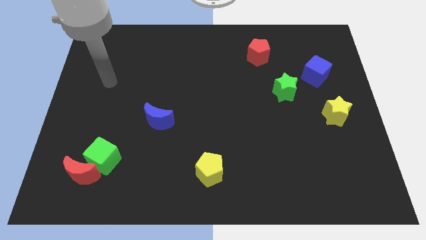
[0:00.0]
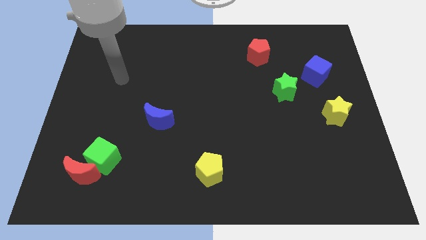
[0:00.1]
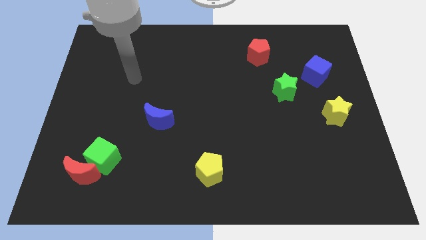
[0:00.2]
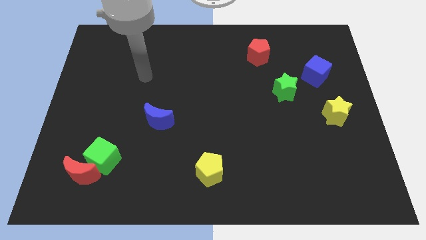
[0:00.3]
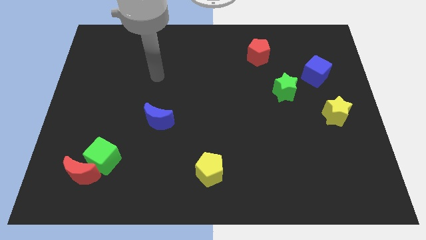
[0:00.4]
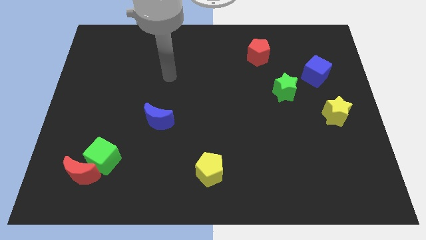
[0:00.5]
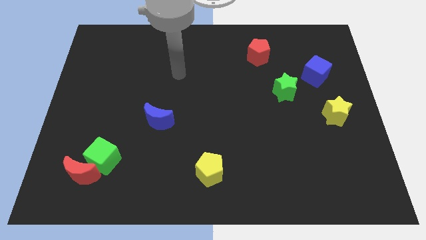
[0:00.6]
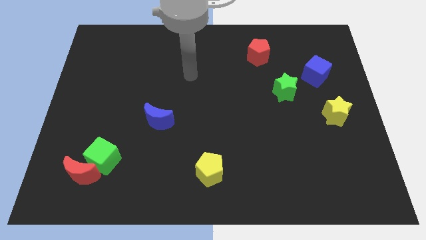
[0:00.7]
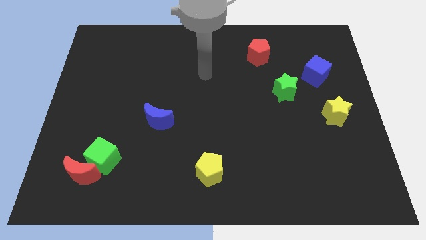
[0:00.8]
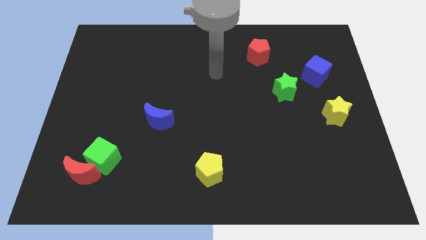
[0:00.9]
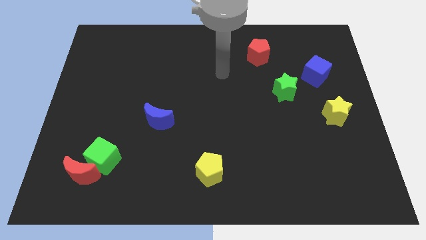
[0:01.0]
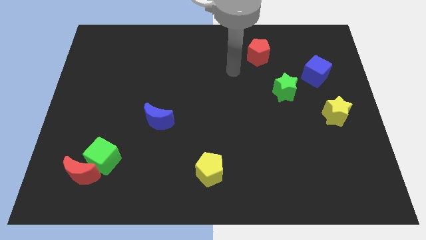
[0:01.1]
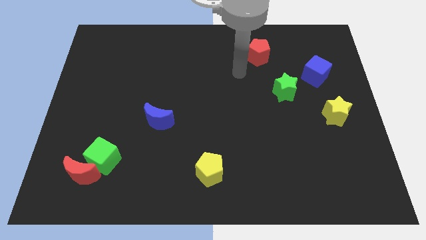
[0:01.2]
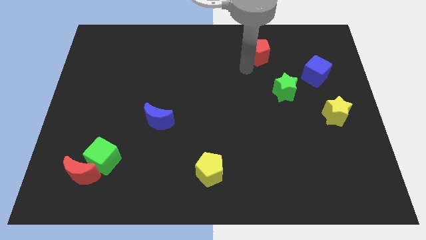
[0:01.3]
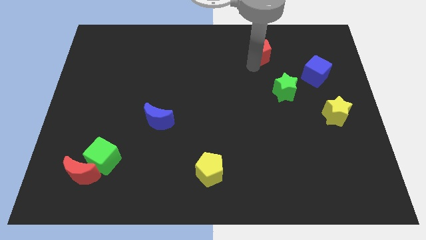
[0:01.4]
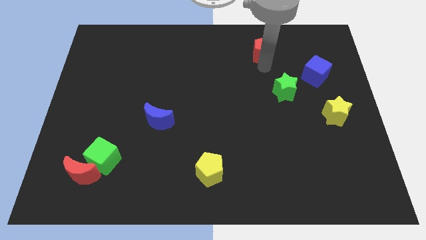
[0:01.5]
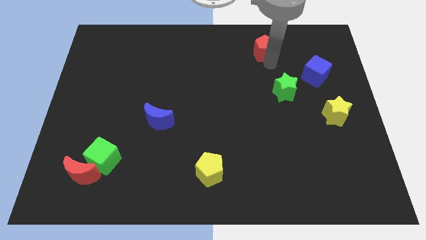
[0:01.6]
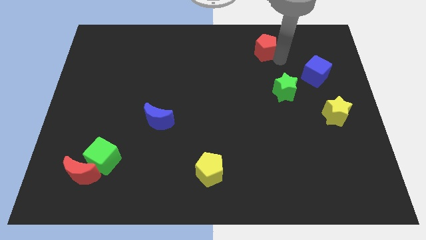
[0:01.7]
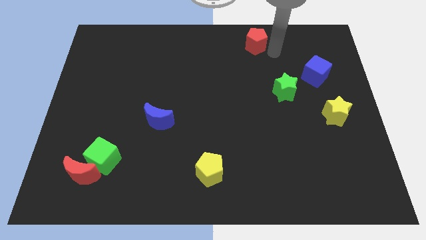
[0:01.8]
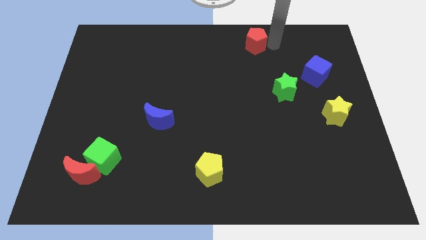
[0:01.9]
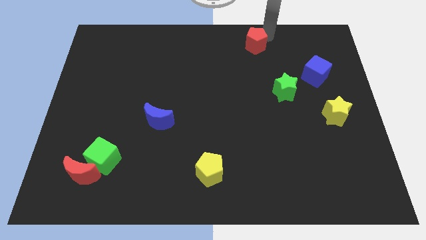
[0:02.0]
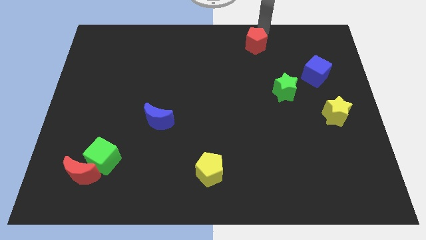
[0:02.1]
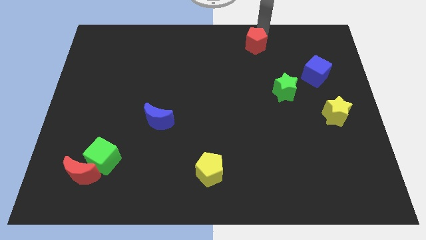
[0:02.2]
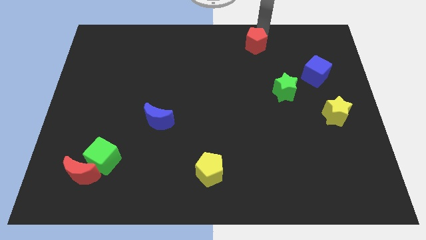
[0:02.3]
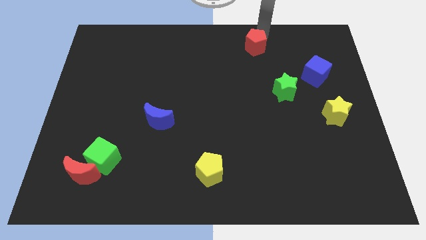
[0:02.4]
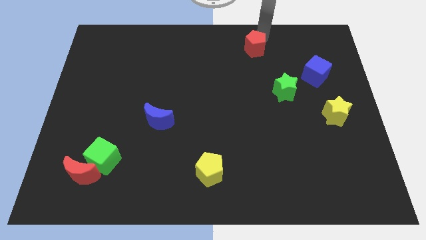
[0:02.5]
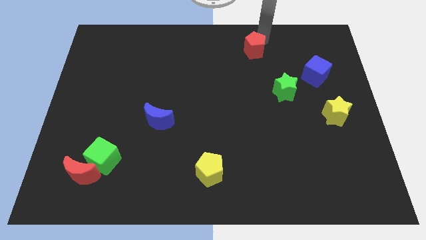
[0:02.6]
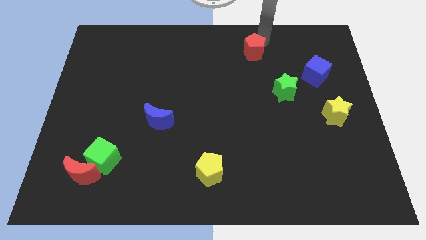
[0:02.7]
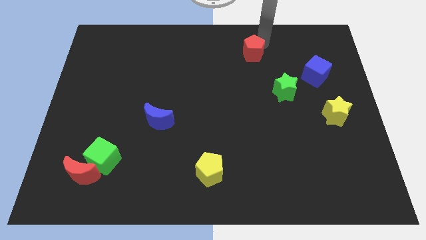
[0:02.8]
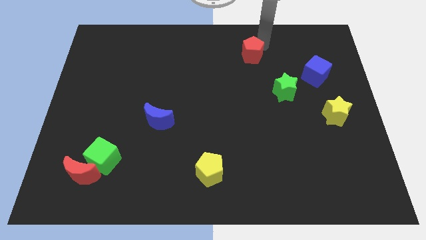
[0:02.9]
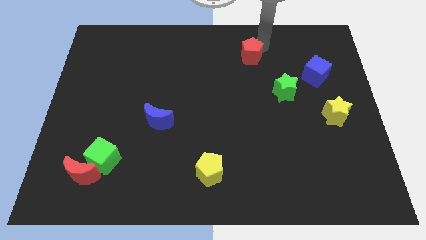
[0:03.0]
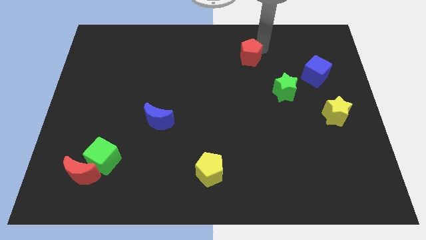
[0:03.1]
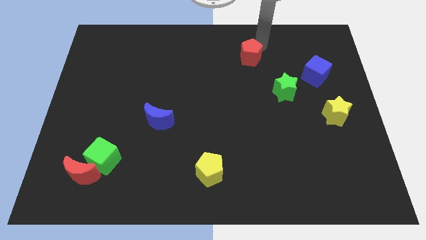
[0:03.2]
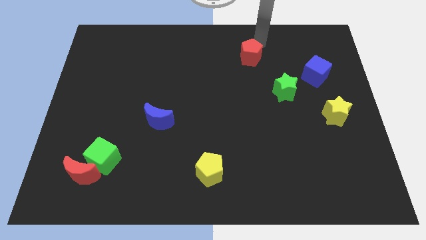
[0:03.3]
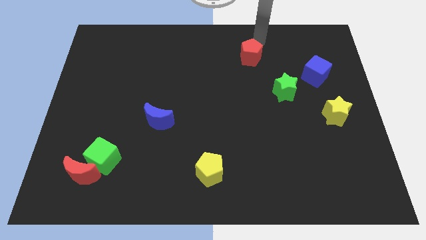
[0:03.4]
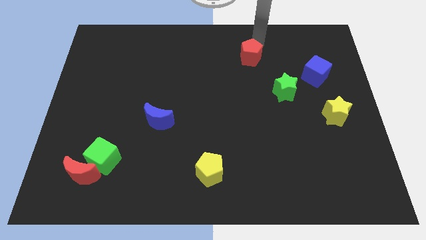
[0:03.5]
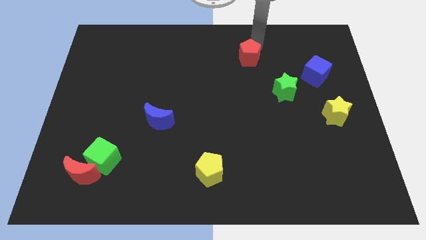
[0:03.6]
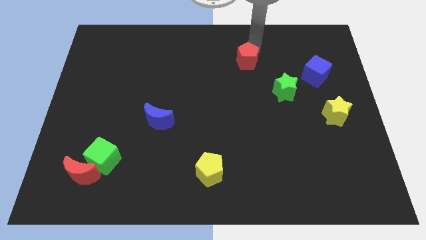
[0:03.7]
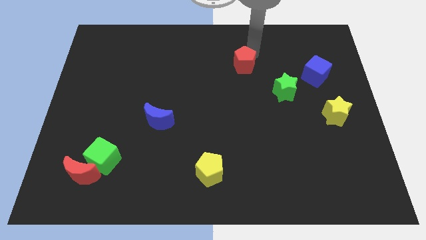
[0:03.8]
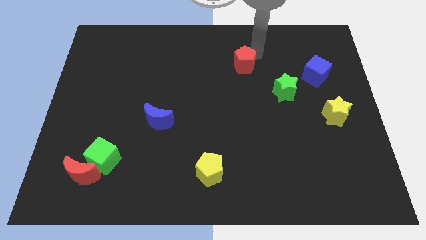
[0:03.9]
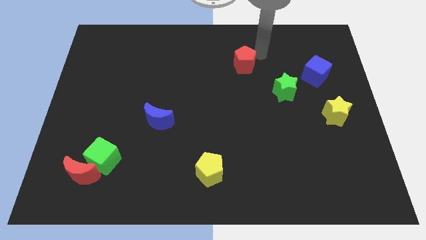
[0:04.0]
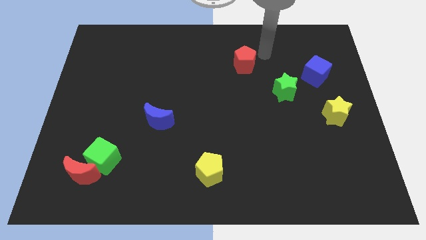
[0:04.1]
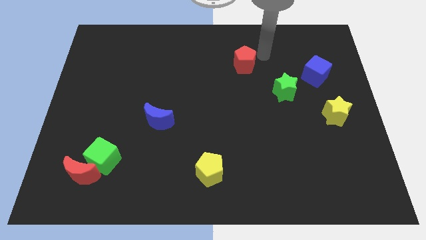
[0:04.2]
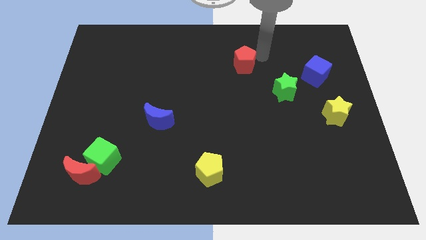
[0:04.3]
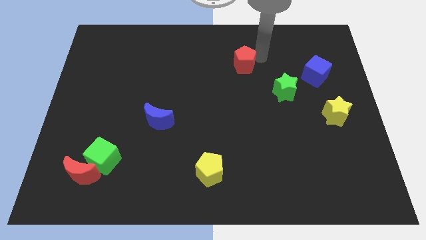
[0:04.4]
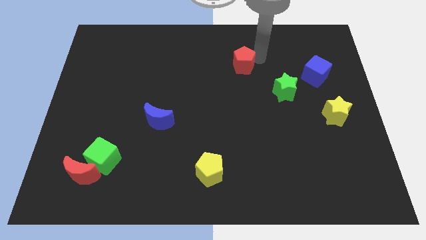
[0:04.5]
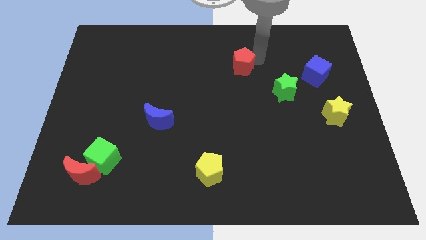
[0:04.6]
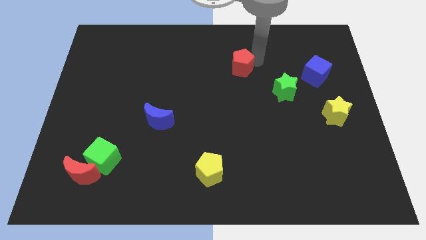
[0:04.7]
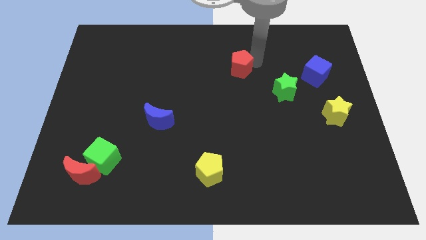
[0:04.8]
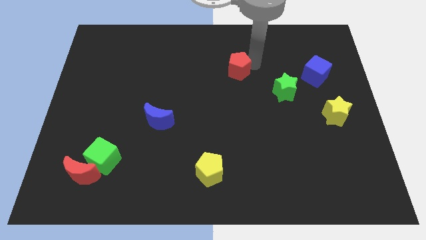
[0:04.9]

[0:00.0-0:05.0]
push the red pentagon down and to the left somewhat

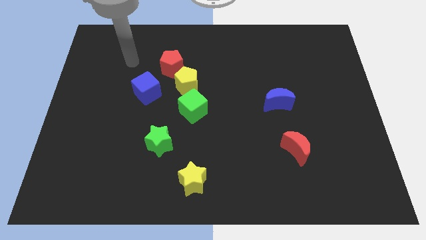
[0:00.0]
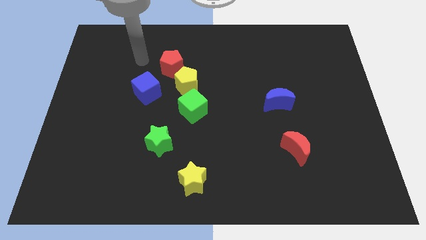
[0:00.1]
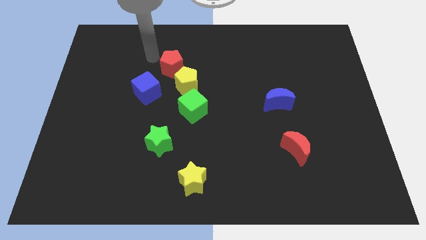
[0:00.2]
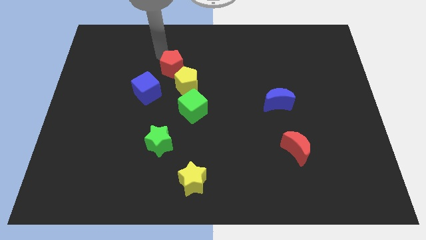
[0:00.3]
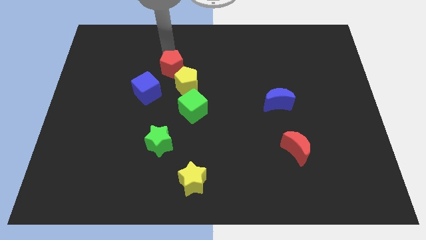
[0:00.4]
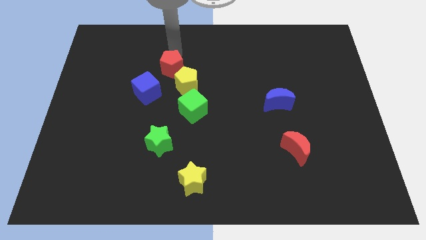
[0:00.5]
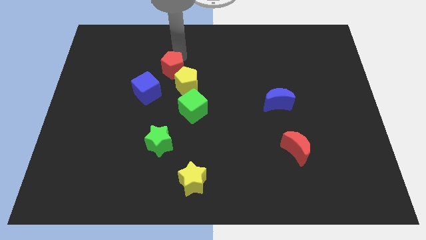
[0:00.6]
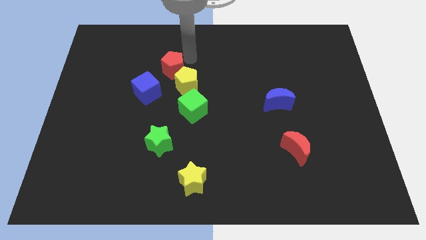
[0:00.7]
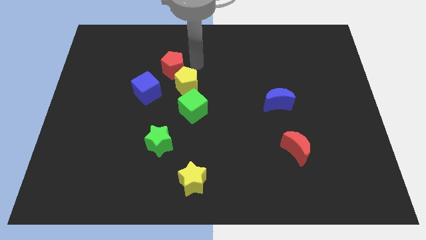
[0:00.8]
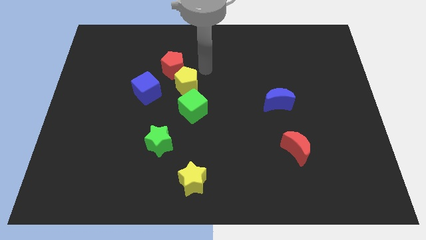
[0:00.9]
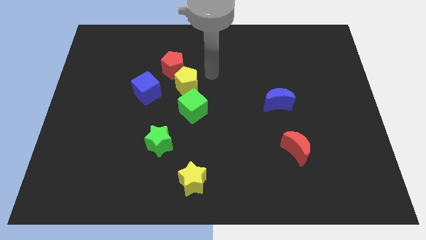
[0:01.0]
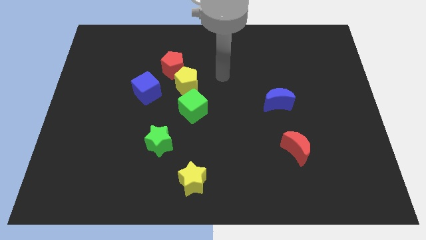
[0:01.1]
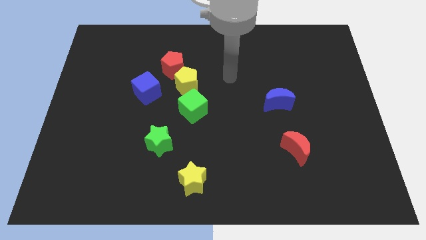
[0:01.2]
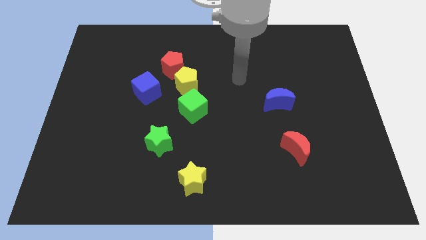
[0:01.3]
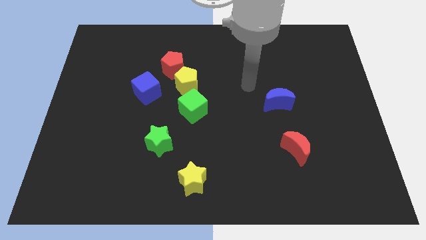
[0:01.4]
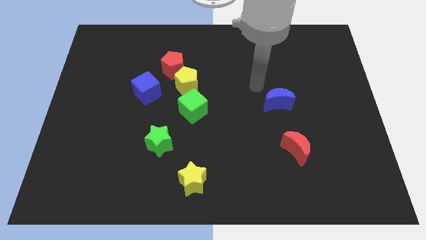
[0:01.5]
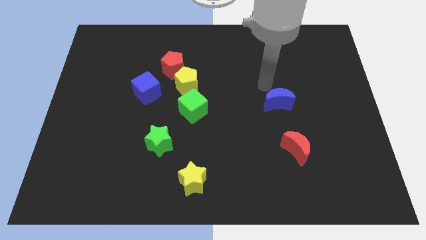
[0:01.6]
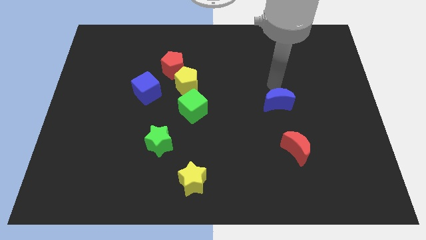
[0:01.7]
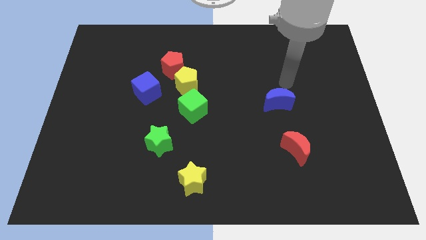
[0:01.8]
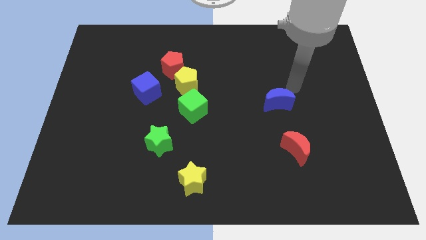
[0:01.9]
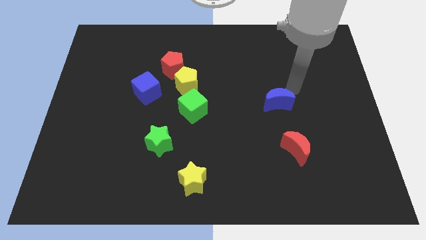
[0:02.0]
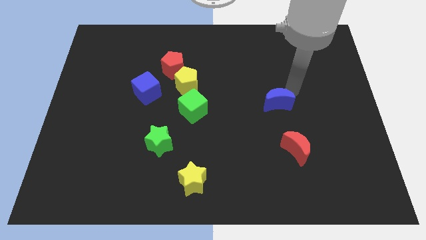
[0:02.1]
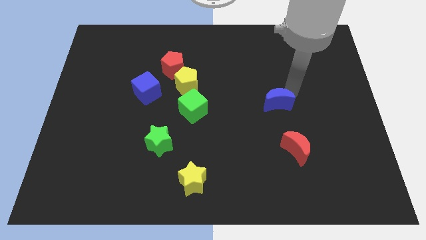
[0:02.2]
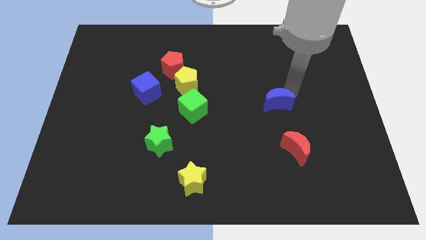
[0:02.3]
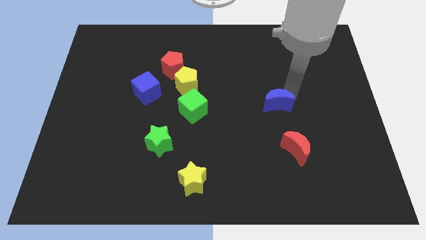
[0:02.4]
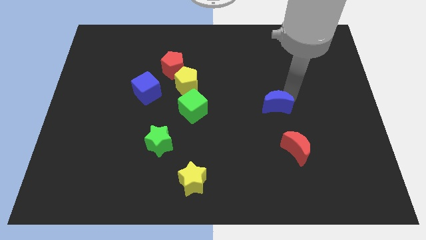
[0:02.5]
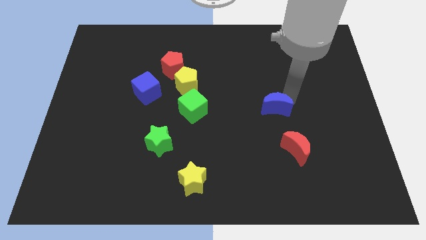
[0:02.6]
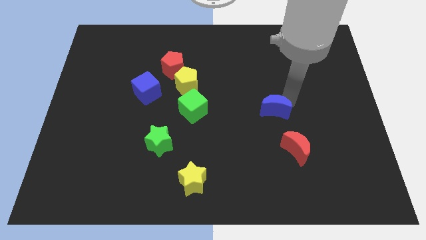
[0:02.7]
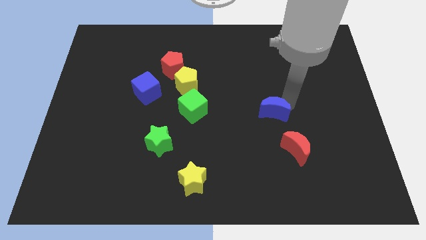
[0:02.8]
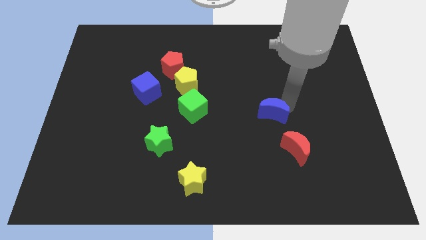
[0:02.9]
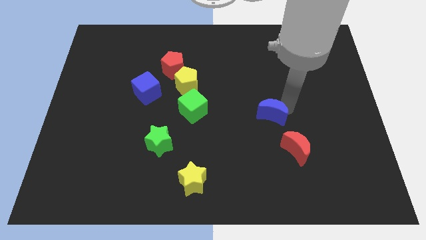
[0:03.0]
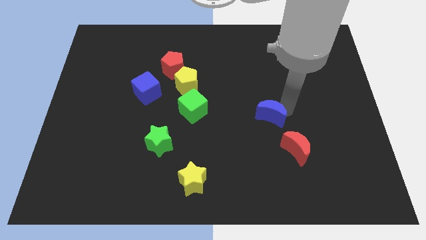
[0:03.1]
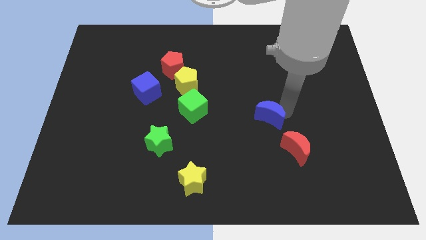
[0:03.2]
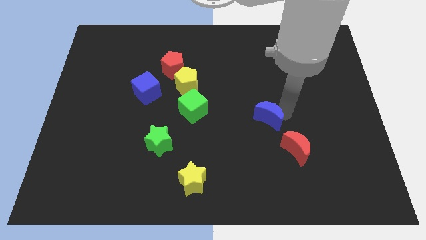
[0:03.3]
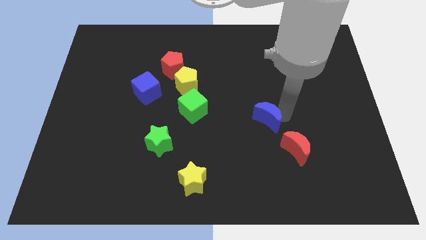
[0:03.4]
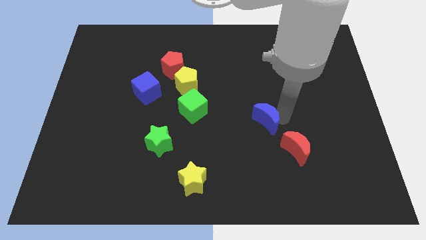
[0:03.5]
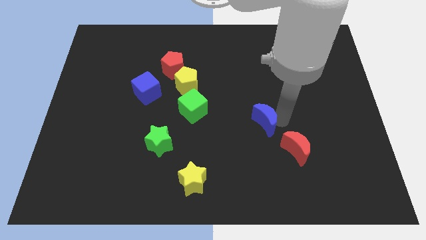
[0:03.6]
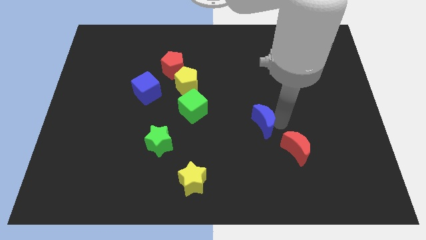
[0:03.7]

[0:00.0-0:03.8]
move the blue moon down and left a bit
